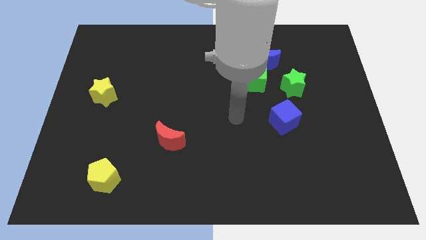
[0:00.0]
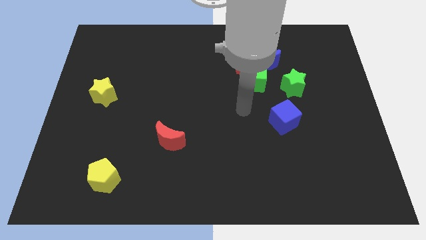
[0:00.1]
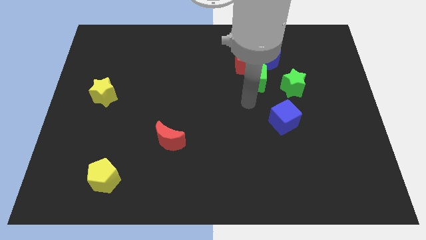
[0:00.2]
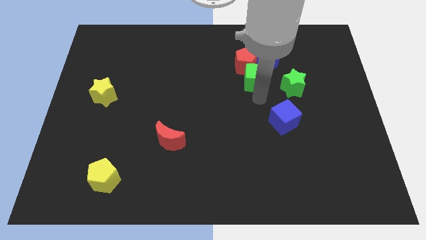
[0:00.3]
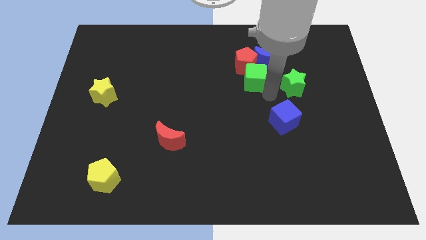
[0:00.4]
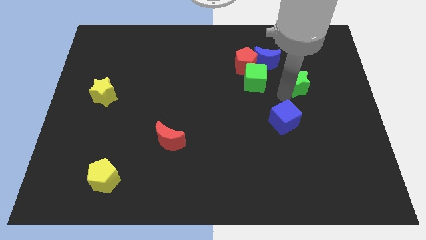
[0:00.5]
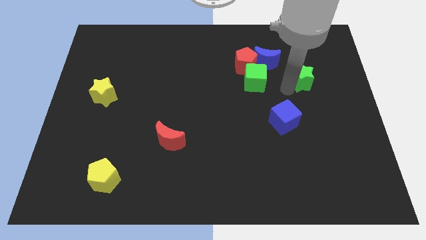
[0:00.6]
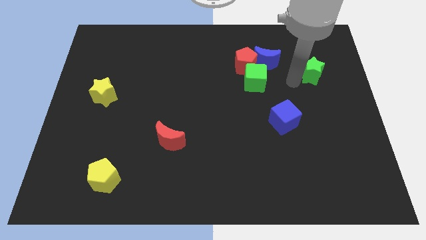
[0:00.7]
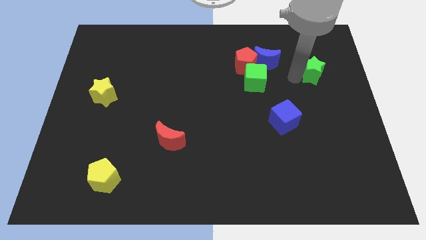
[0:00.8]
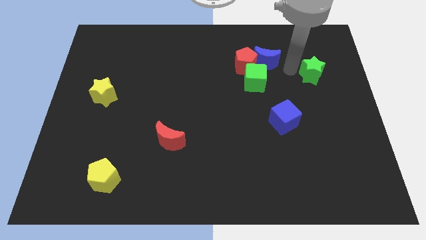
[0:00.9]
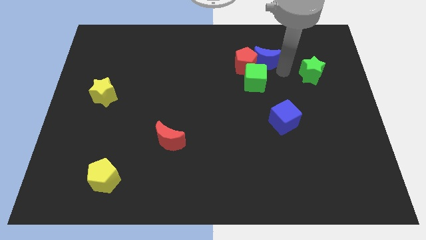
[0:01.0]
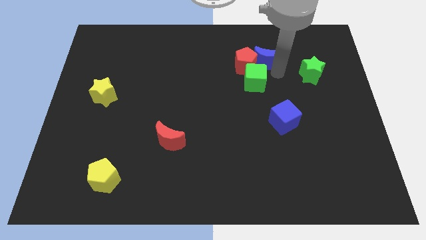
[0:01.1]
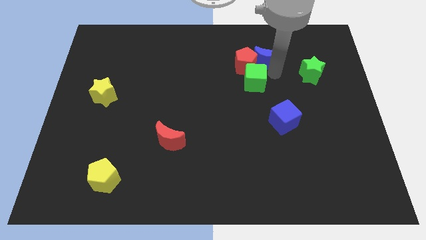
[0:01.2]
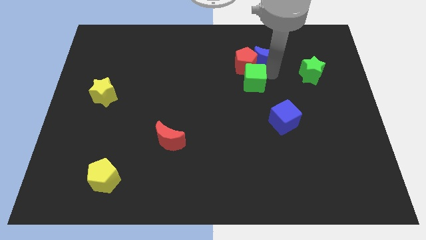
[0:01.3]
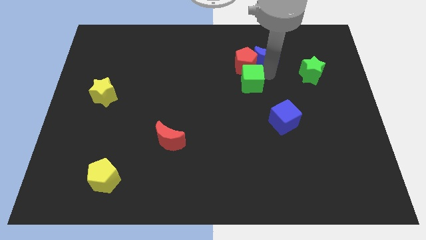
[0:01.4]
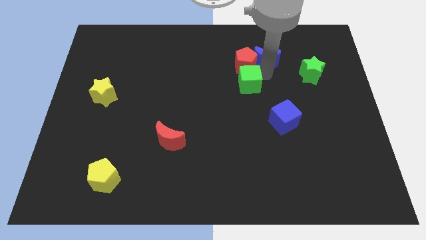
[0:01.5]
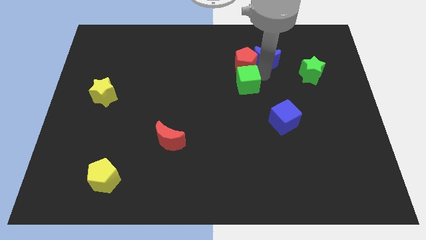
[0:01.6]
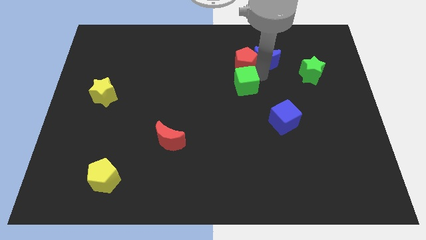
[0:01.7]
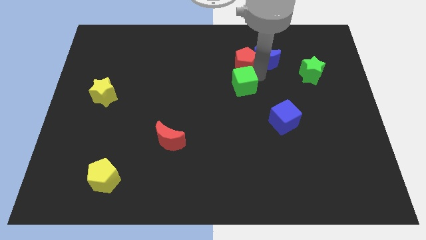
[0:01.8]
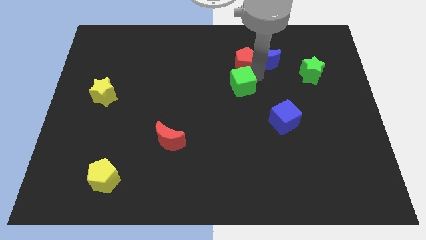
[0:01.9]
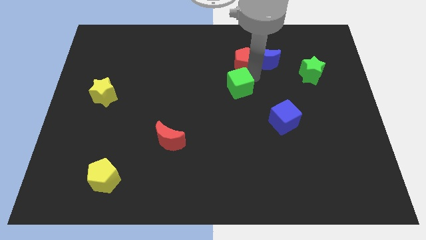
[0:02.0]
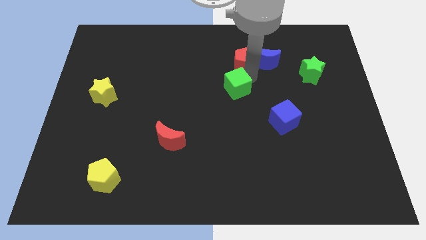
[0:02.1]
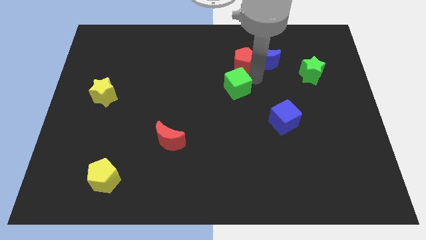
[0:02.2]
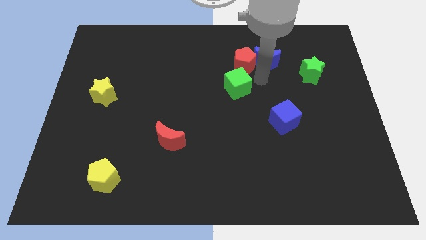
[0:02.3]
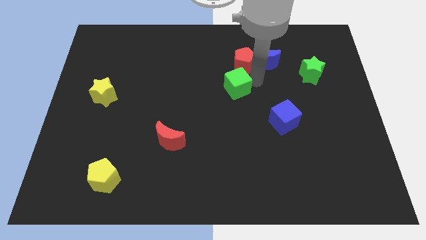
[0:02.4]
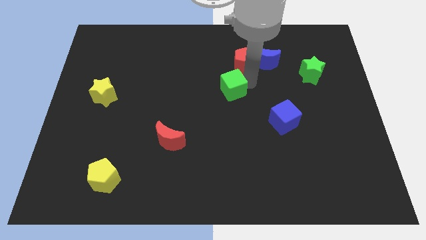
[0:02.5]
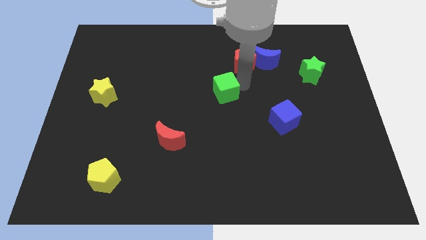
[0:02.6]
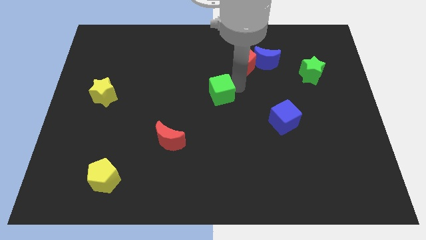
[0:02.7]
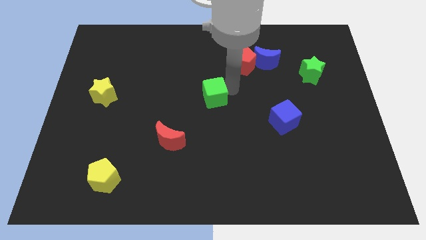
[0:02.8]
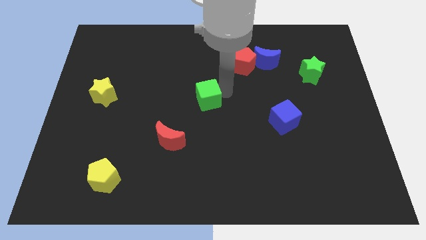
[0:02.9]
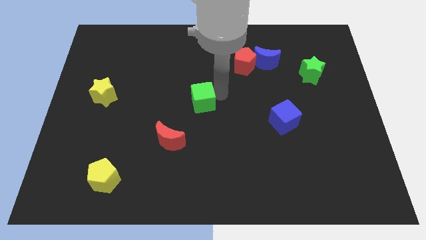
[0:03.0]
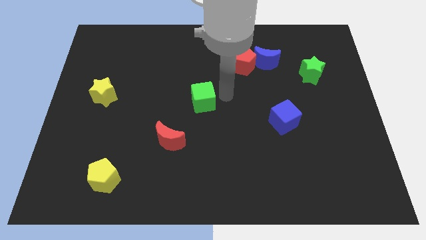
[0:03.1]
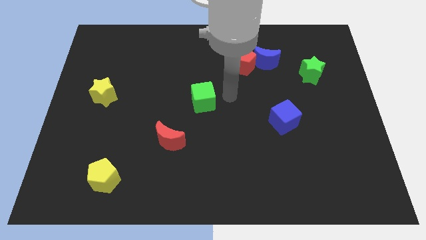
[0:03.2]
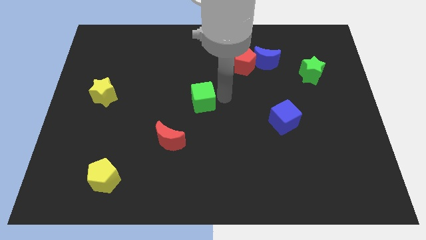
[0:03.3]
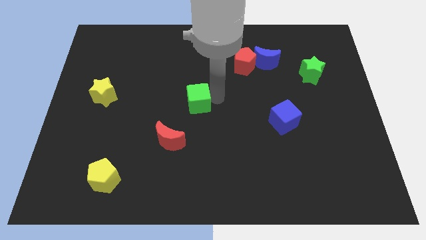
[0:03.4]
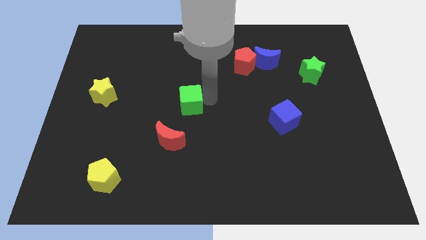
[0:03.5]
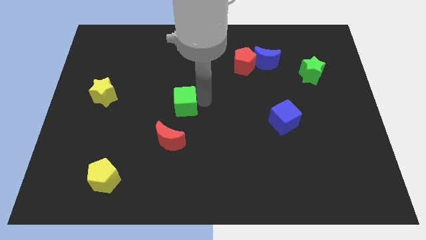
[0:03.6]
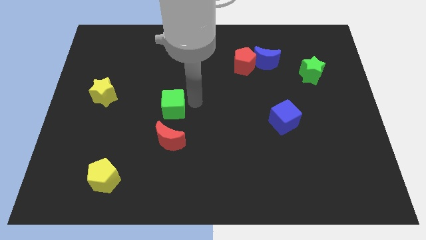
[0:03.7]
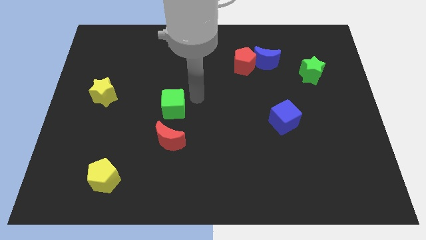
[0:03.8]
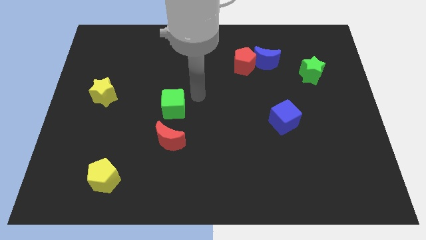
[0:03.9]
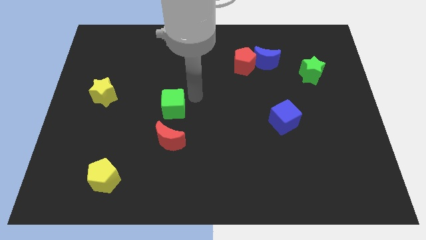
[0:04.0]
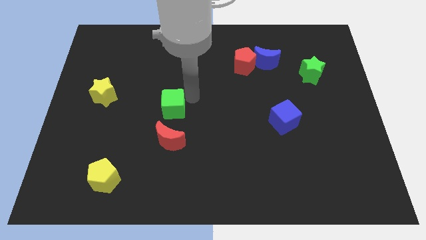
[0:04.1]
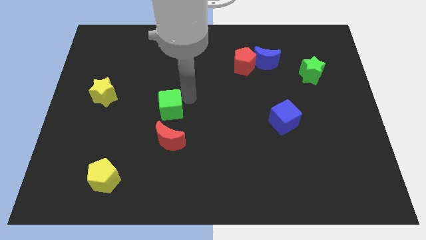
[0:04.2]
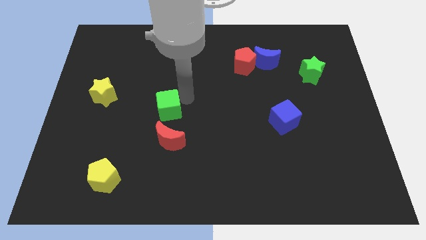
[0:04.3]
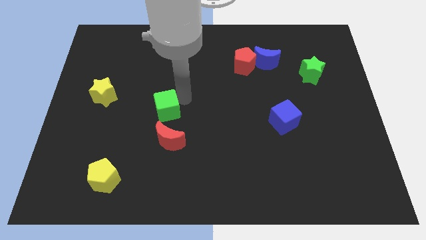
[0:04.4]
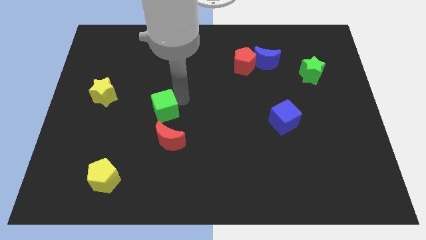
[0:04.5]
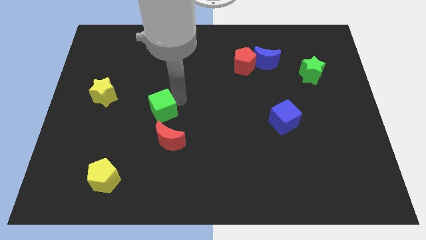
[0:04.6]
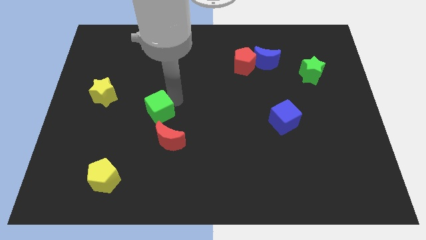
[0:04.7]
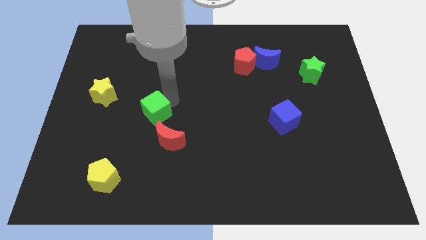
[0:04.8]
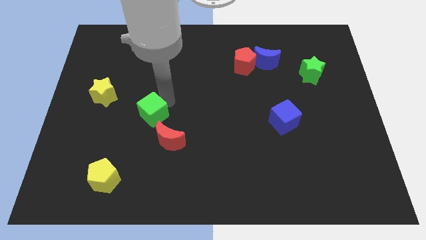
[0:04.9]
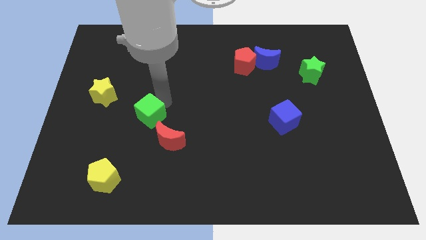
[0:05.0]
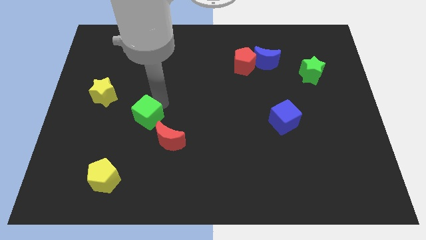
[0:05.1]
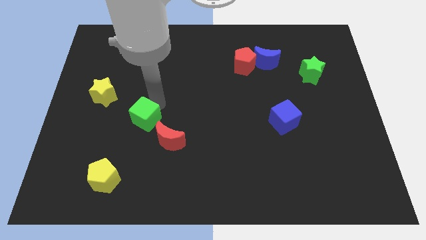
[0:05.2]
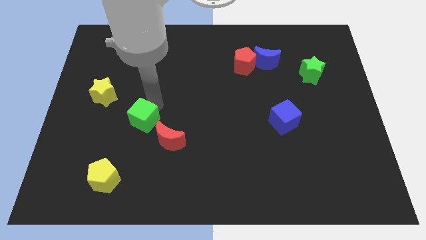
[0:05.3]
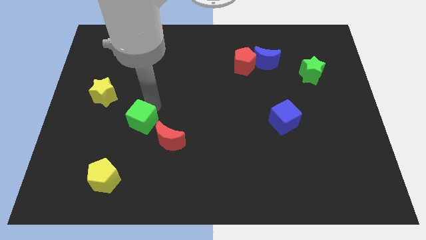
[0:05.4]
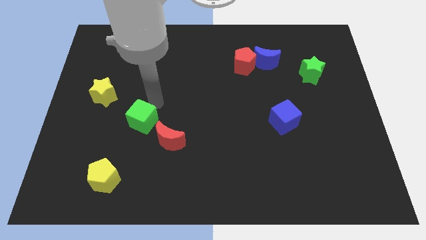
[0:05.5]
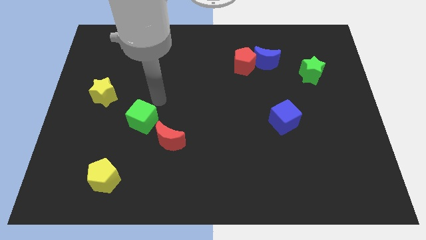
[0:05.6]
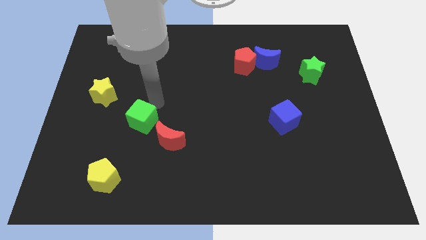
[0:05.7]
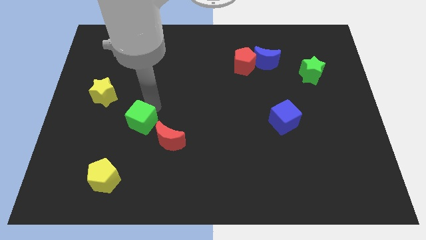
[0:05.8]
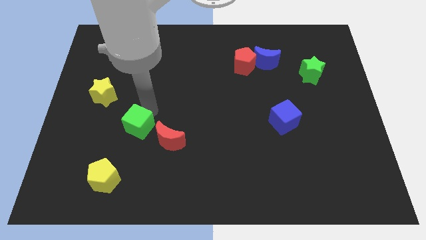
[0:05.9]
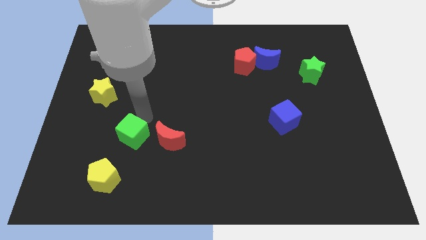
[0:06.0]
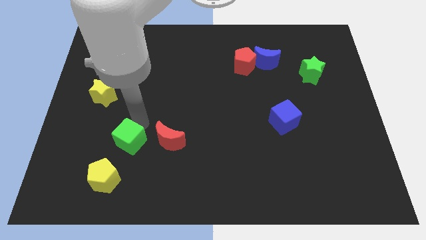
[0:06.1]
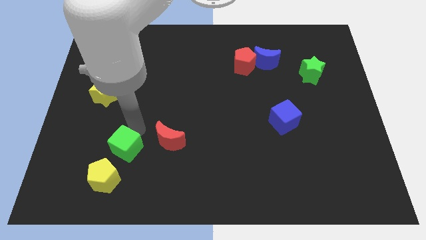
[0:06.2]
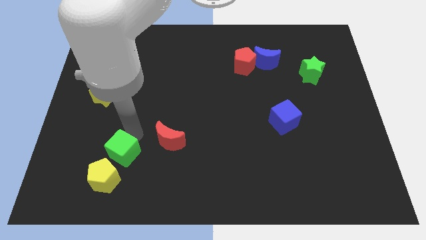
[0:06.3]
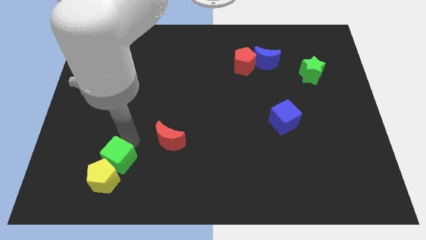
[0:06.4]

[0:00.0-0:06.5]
push the green cube towards the yellow pentagon

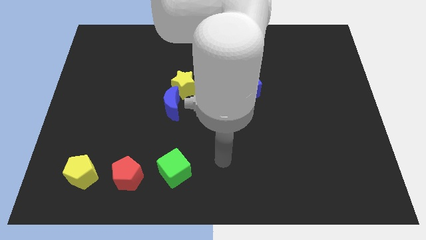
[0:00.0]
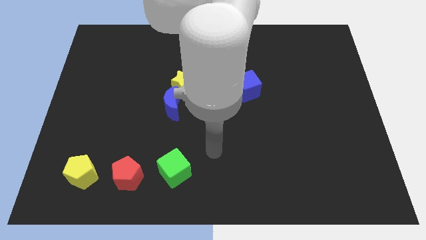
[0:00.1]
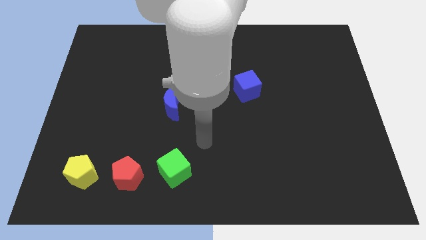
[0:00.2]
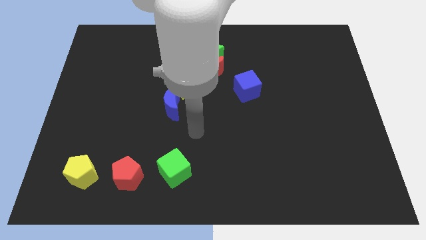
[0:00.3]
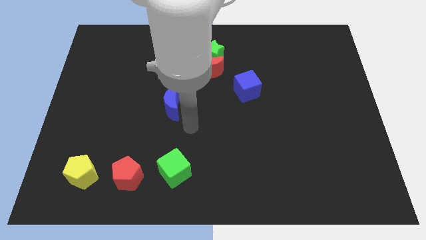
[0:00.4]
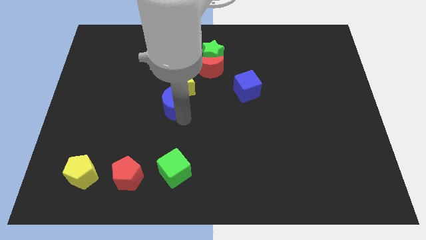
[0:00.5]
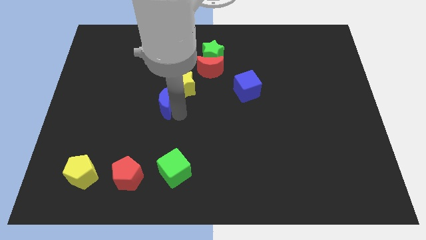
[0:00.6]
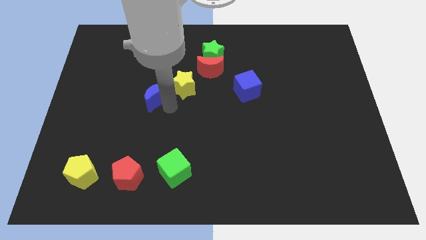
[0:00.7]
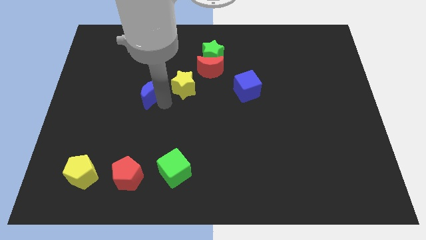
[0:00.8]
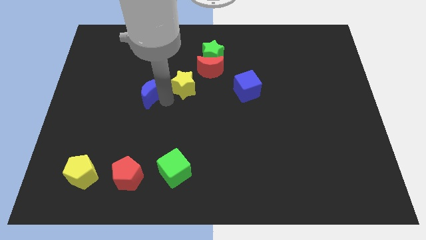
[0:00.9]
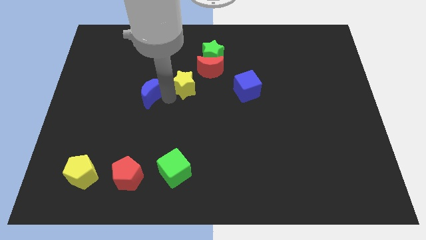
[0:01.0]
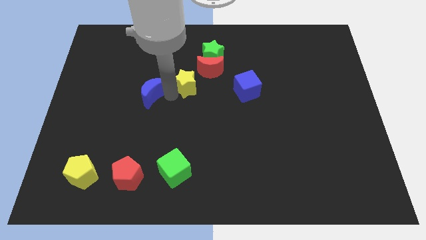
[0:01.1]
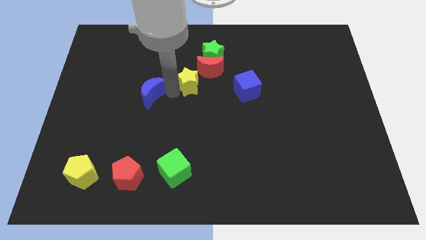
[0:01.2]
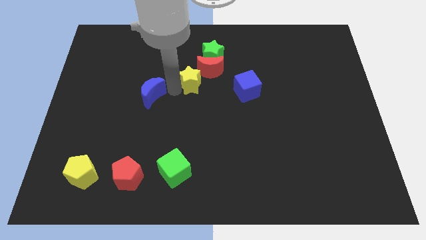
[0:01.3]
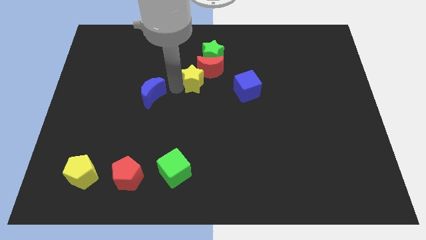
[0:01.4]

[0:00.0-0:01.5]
put the yellow star to the red moon
